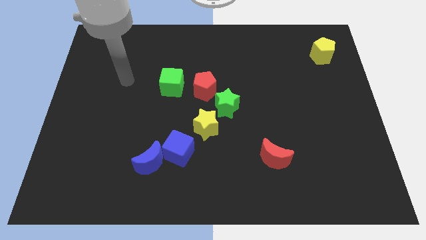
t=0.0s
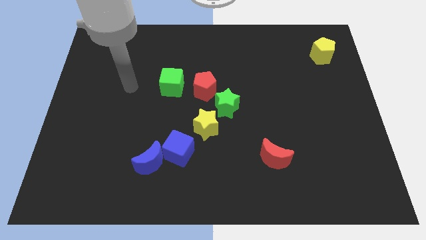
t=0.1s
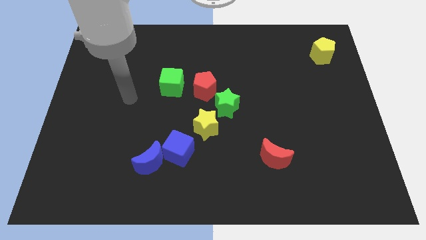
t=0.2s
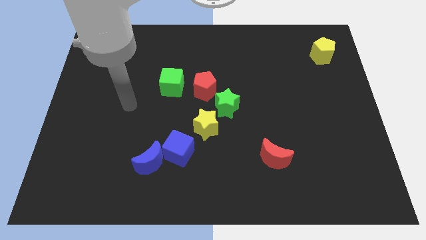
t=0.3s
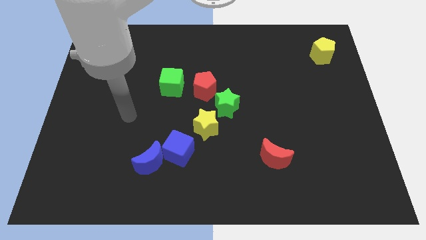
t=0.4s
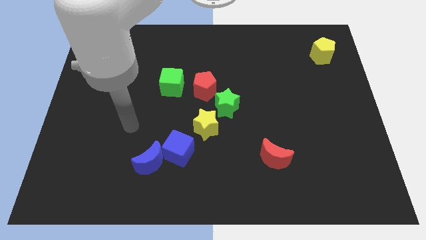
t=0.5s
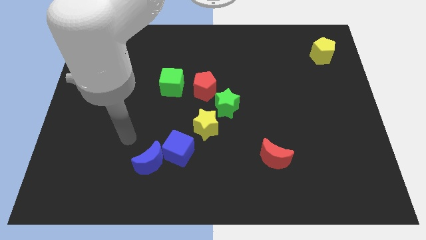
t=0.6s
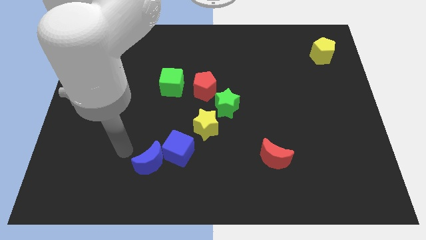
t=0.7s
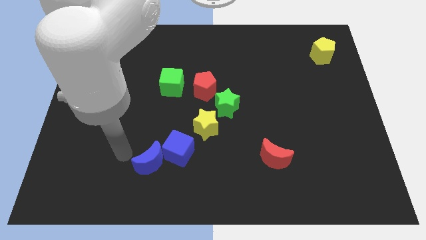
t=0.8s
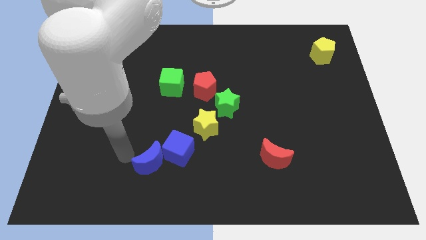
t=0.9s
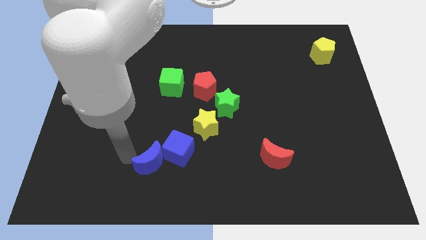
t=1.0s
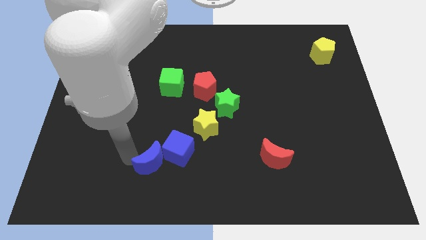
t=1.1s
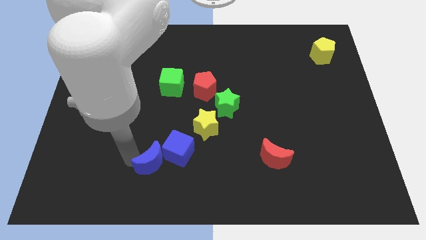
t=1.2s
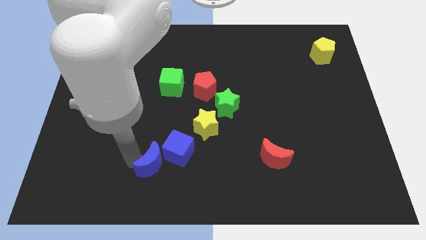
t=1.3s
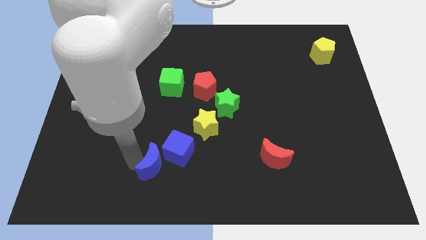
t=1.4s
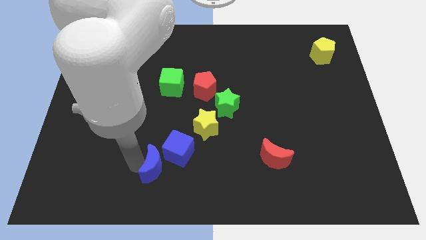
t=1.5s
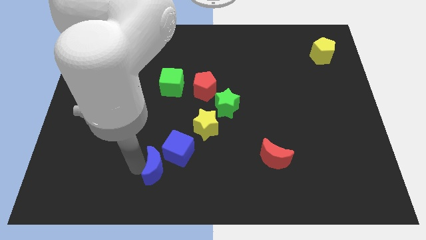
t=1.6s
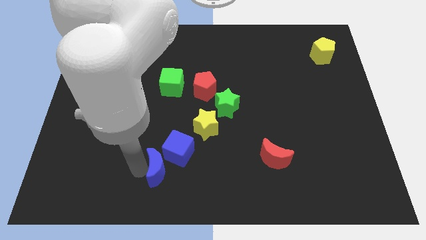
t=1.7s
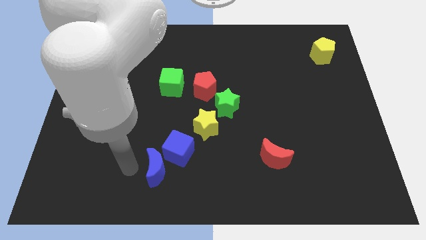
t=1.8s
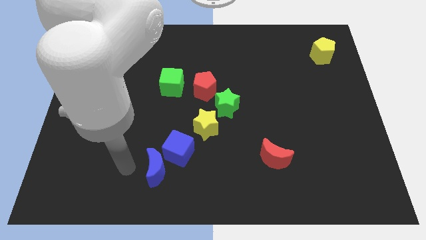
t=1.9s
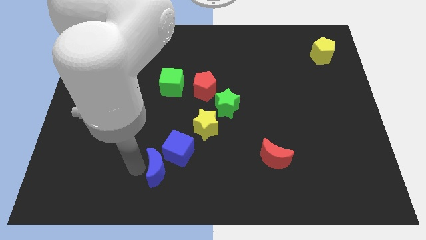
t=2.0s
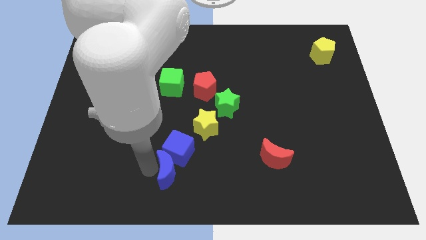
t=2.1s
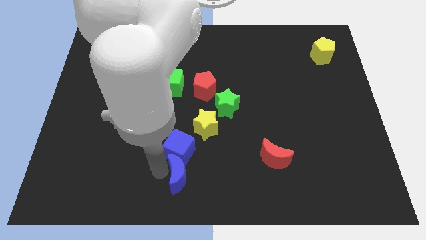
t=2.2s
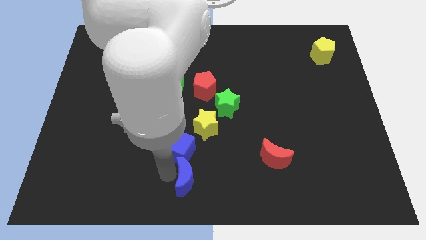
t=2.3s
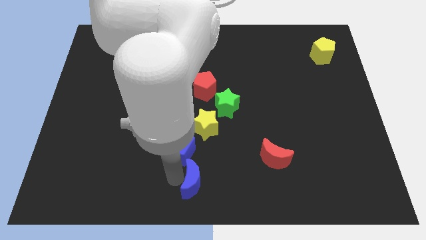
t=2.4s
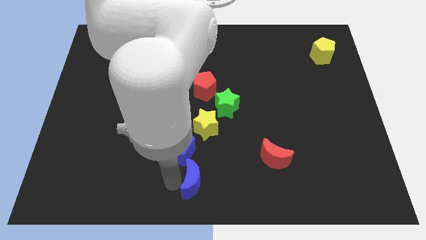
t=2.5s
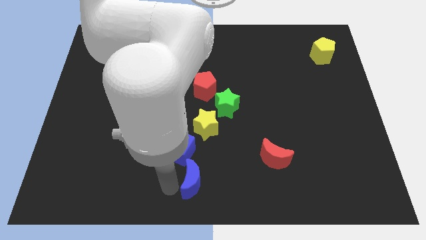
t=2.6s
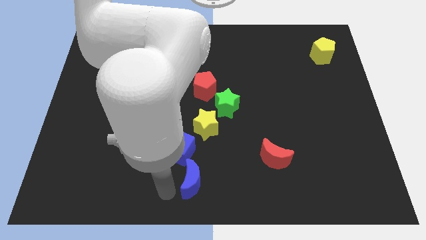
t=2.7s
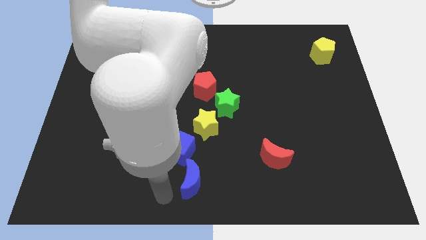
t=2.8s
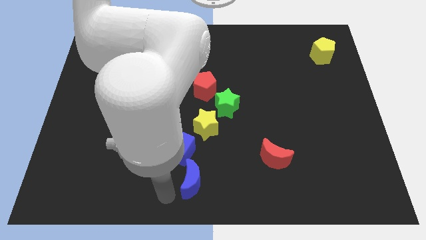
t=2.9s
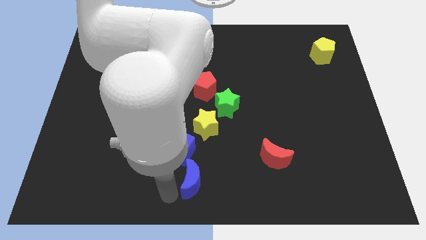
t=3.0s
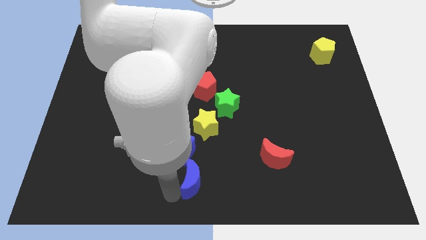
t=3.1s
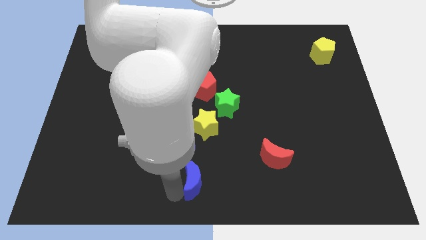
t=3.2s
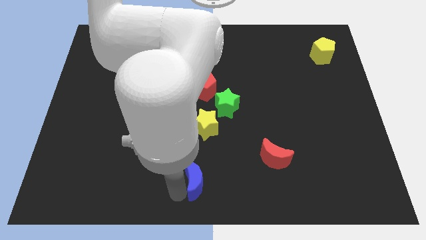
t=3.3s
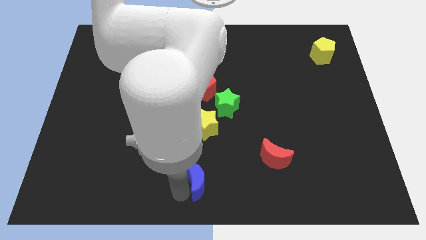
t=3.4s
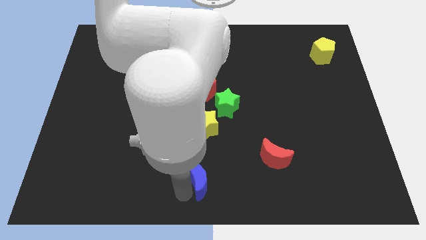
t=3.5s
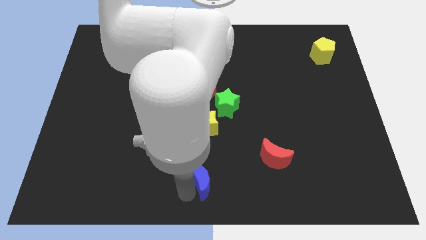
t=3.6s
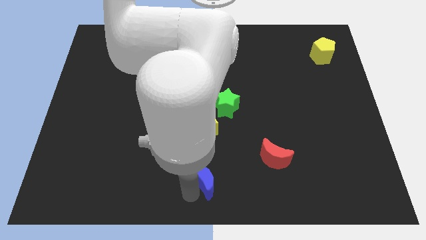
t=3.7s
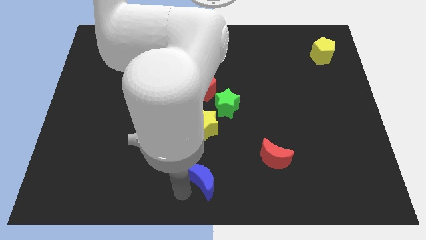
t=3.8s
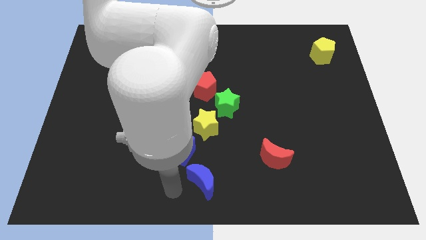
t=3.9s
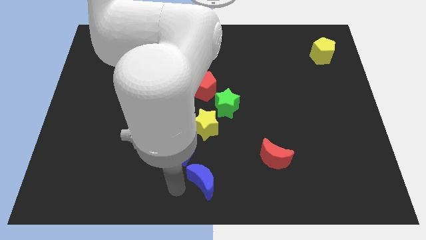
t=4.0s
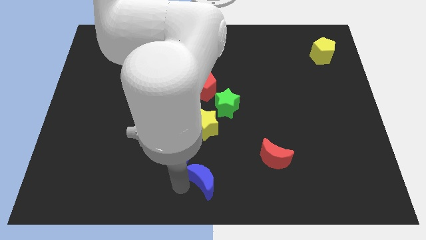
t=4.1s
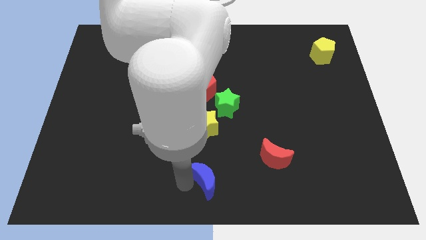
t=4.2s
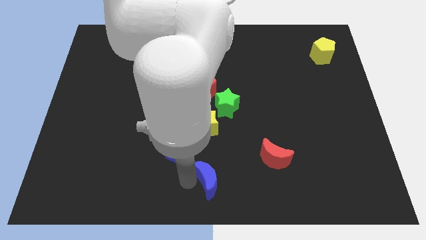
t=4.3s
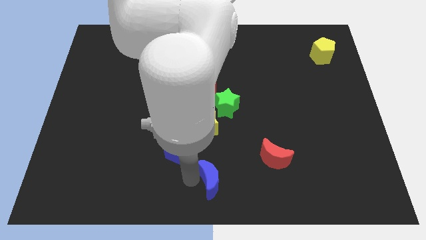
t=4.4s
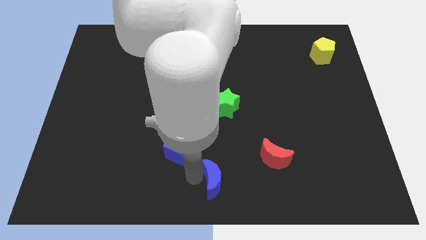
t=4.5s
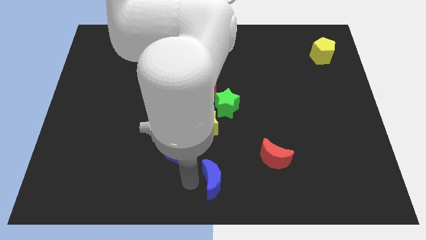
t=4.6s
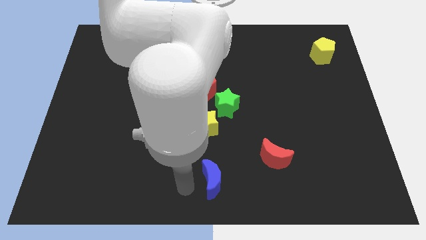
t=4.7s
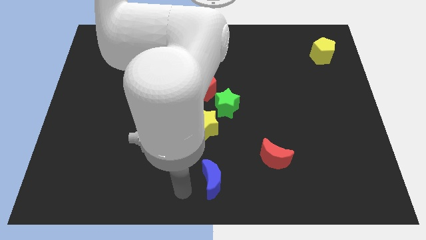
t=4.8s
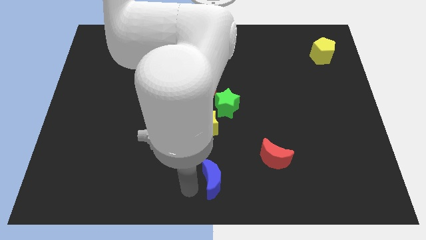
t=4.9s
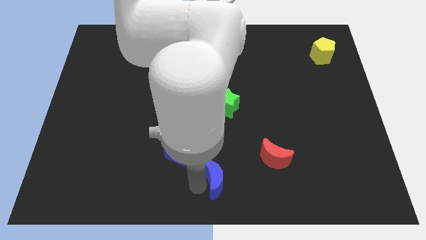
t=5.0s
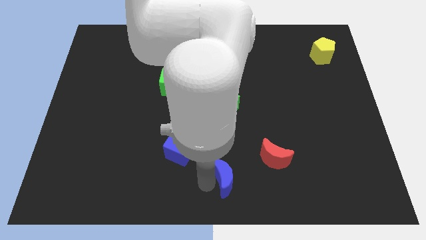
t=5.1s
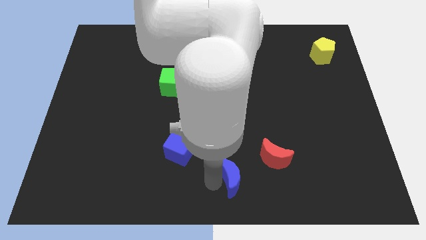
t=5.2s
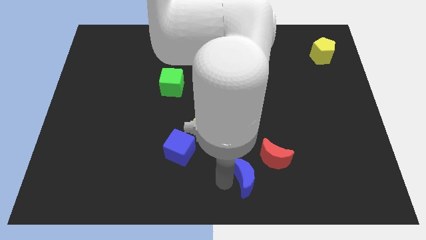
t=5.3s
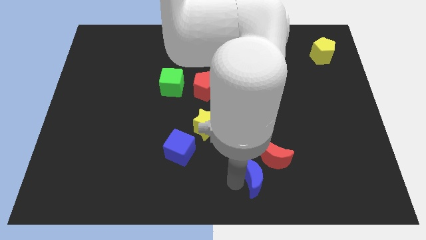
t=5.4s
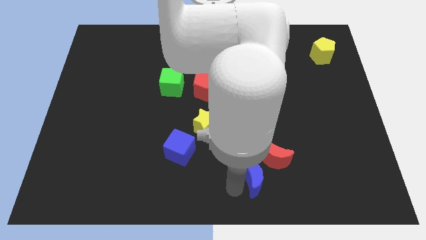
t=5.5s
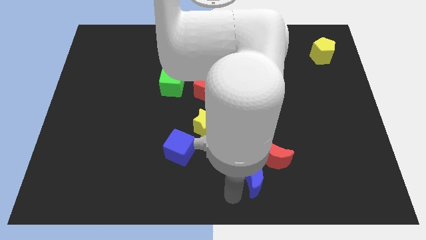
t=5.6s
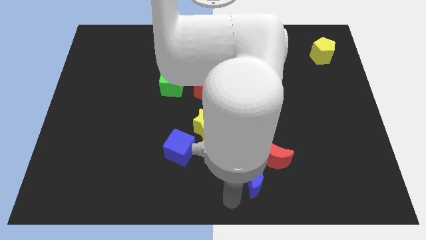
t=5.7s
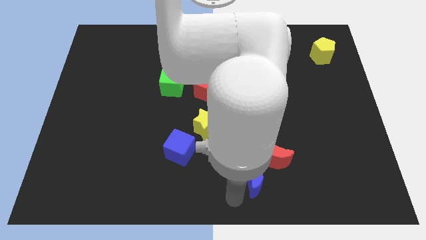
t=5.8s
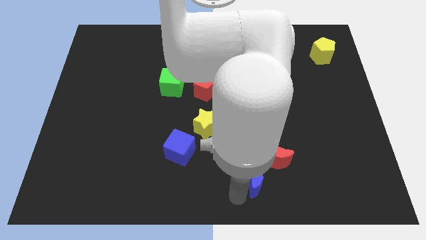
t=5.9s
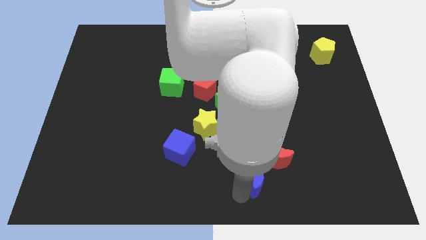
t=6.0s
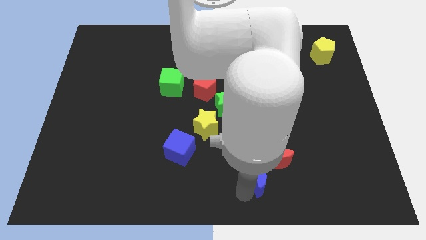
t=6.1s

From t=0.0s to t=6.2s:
move the blue moon next to the red moon

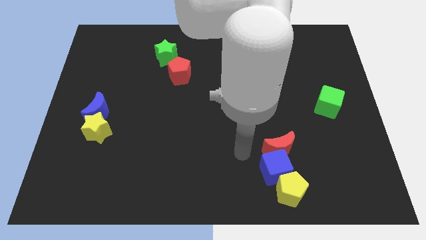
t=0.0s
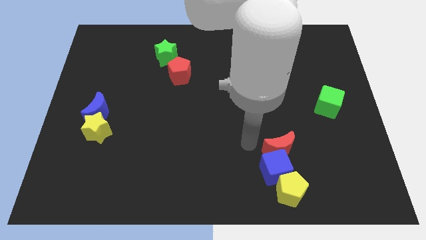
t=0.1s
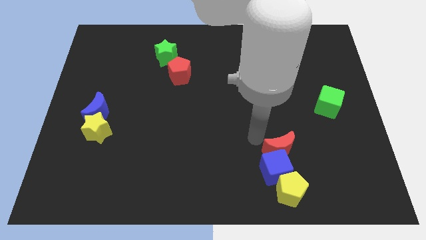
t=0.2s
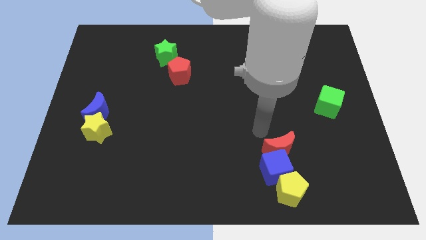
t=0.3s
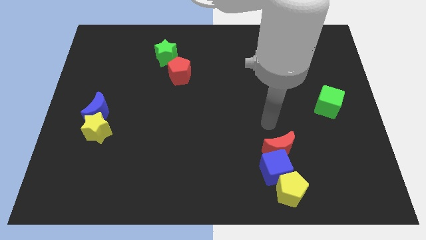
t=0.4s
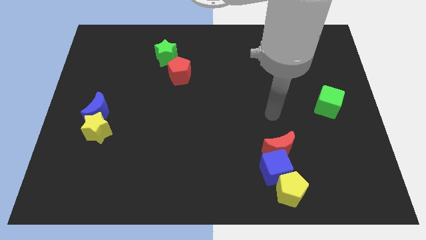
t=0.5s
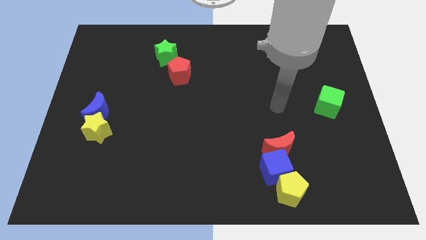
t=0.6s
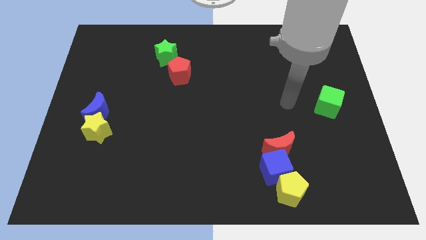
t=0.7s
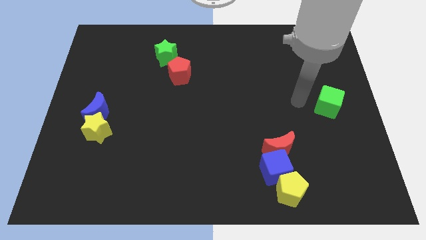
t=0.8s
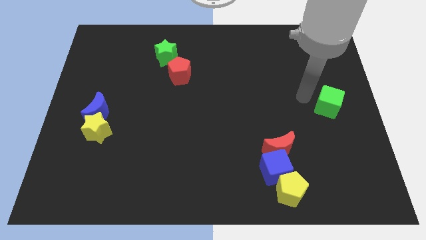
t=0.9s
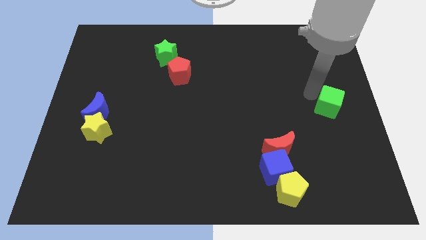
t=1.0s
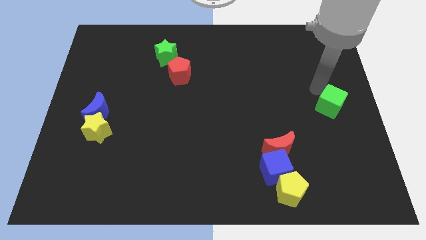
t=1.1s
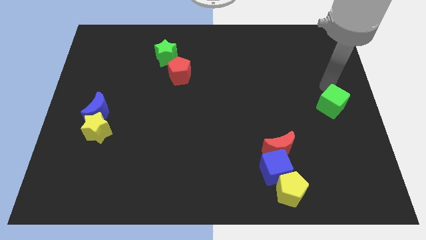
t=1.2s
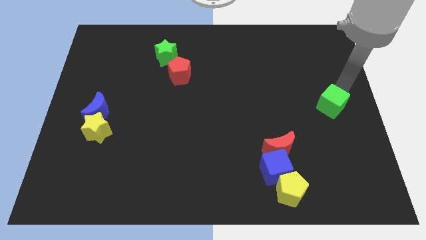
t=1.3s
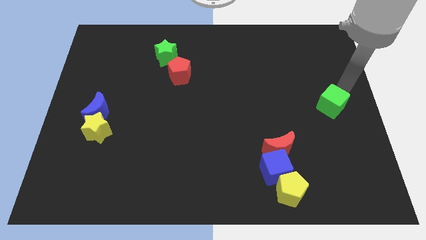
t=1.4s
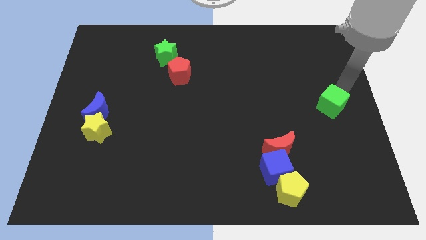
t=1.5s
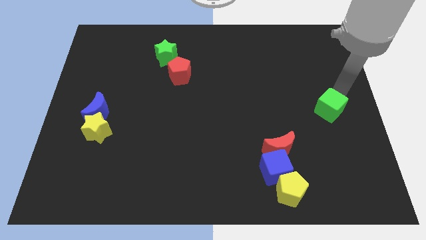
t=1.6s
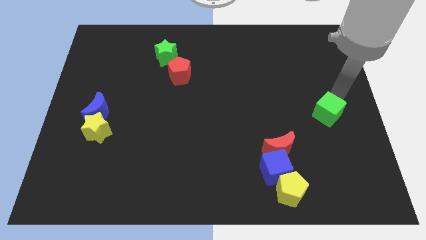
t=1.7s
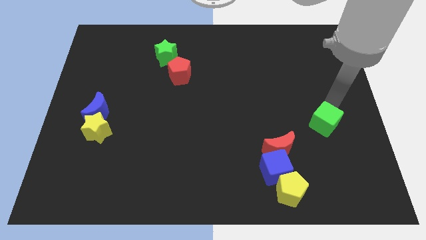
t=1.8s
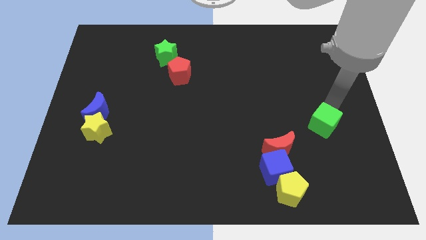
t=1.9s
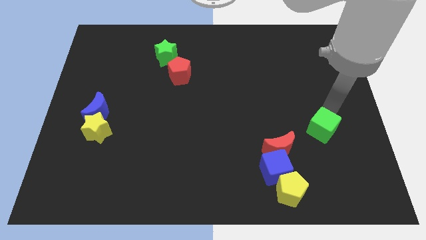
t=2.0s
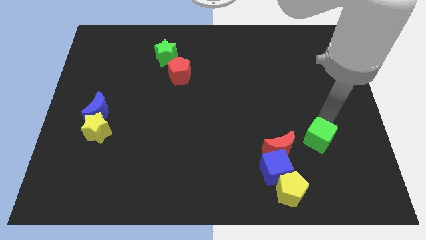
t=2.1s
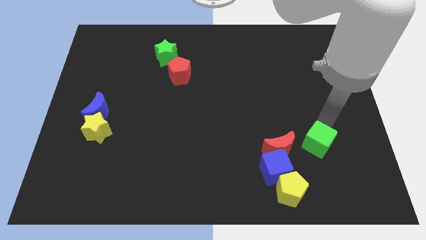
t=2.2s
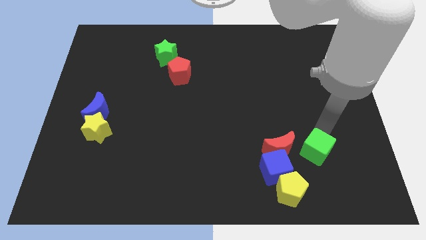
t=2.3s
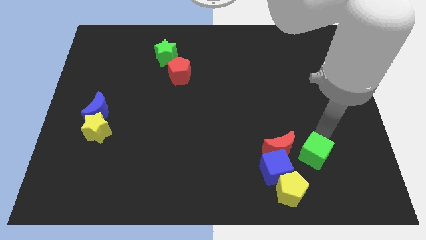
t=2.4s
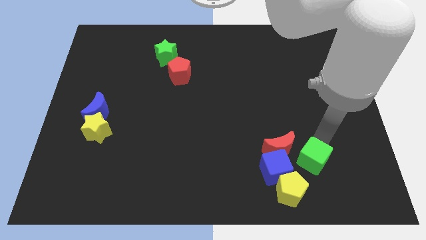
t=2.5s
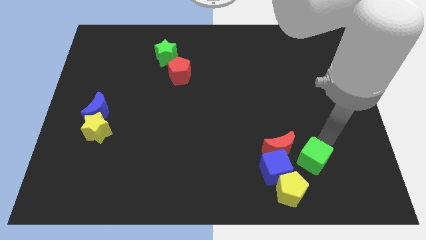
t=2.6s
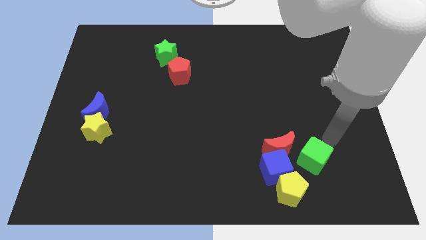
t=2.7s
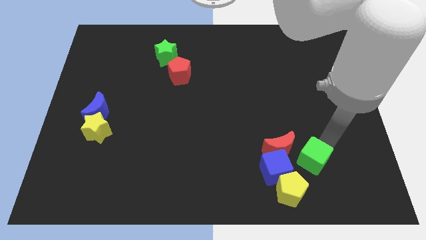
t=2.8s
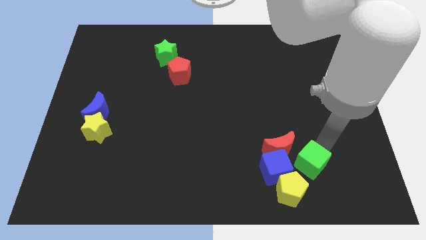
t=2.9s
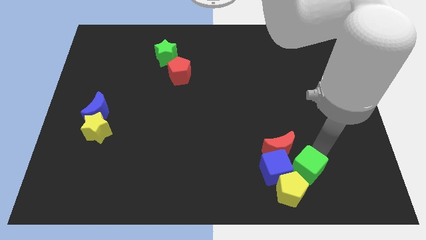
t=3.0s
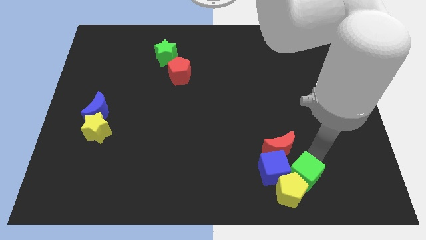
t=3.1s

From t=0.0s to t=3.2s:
push the green cube to the yellow pentagon
